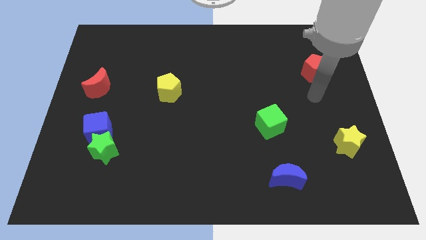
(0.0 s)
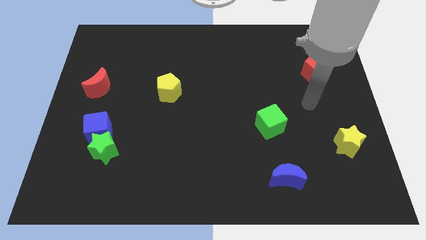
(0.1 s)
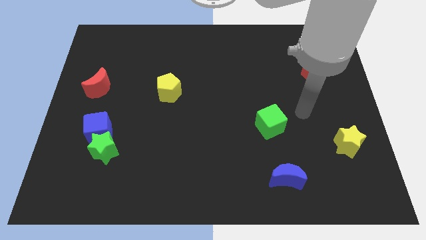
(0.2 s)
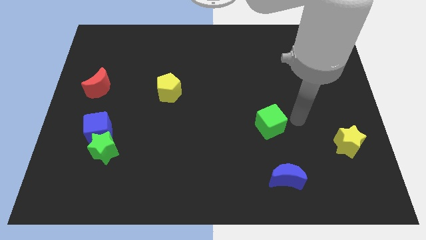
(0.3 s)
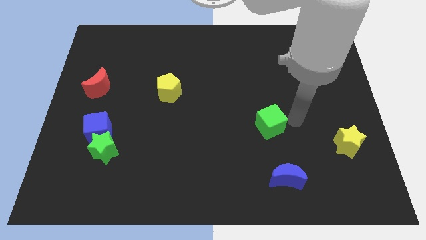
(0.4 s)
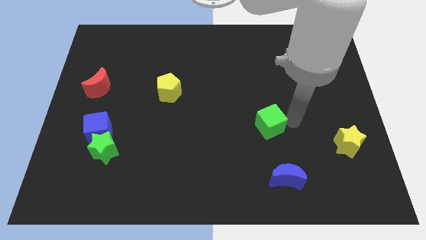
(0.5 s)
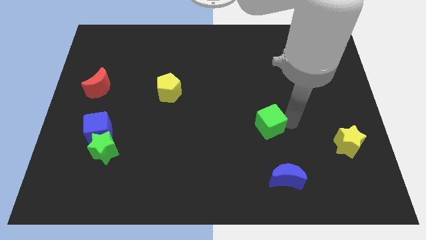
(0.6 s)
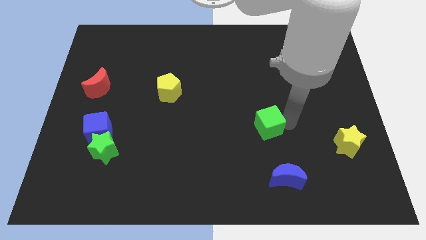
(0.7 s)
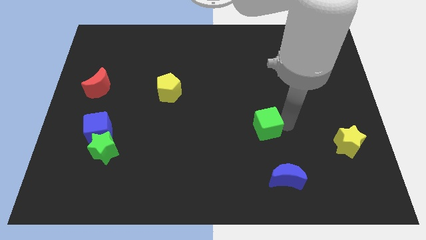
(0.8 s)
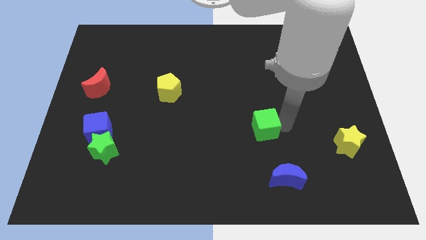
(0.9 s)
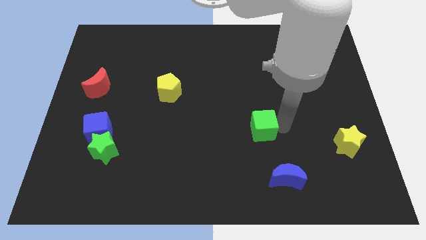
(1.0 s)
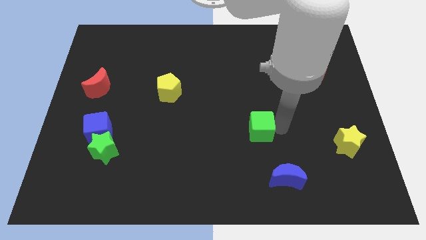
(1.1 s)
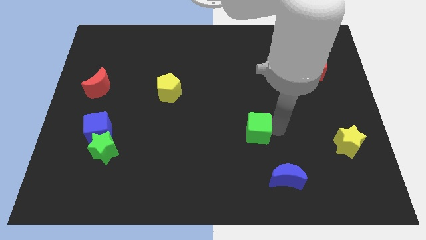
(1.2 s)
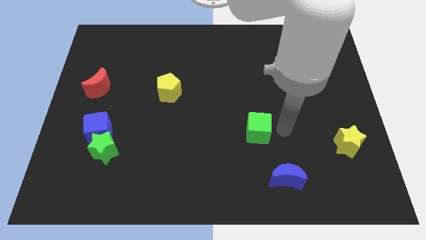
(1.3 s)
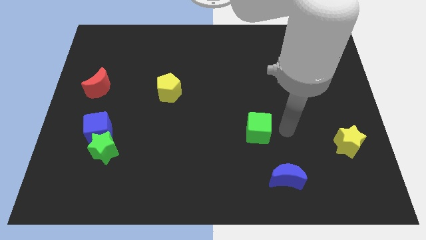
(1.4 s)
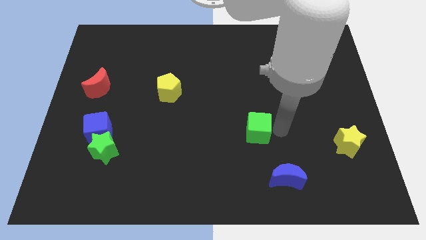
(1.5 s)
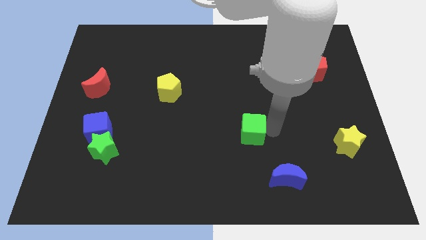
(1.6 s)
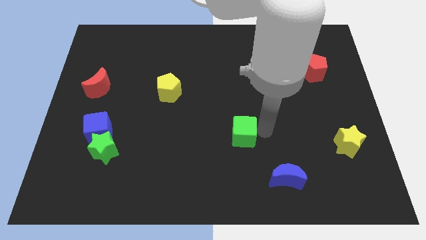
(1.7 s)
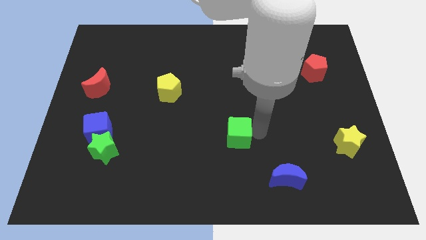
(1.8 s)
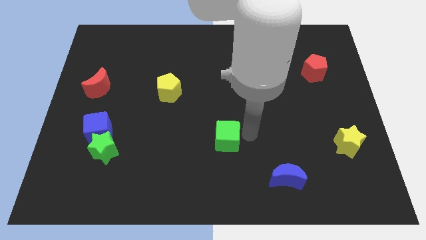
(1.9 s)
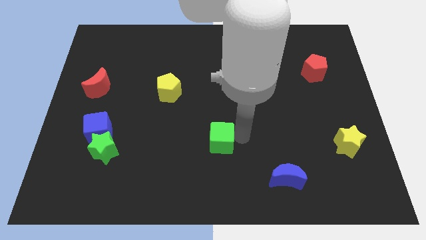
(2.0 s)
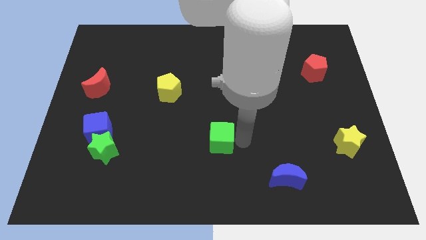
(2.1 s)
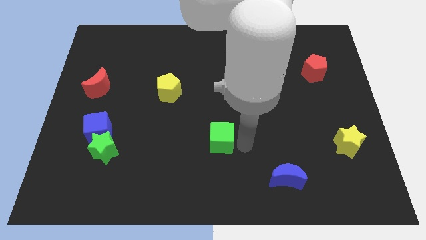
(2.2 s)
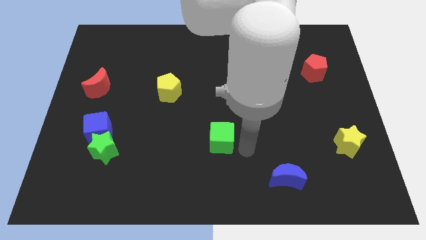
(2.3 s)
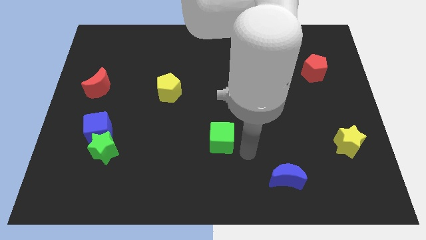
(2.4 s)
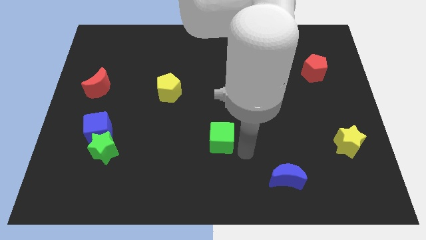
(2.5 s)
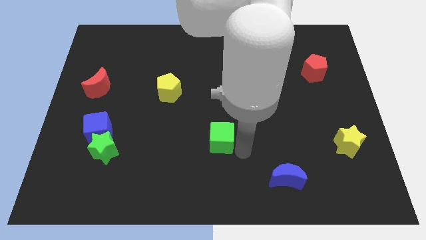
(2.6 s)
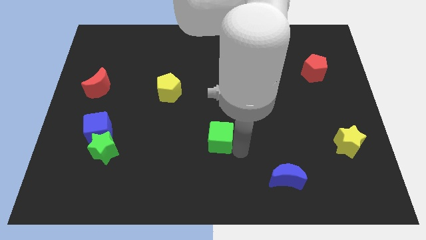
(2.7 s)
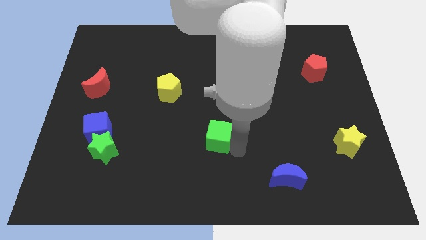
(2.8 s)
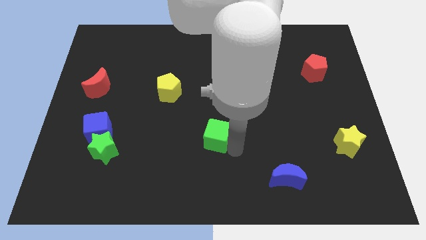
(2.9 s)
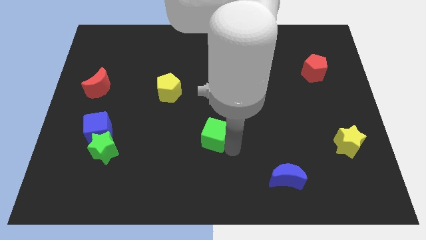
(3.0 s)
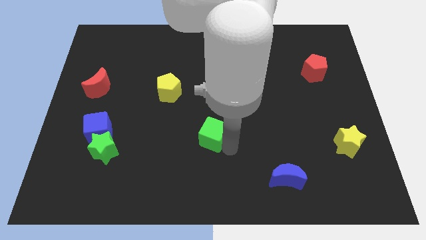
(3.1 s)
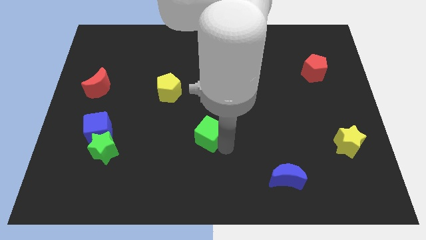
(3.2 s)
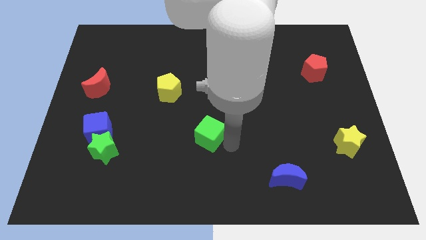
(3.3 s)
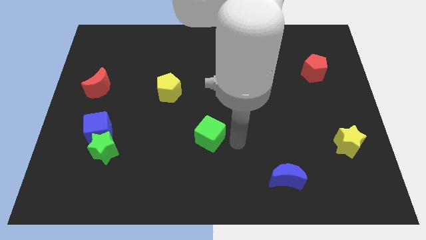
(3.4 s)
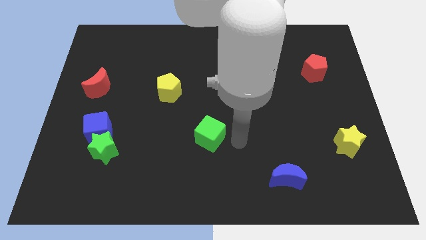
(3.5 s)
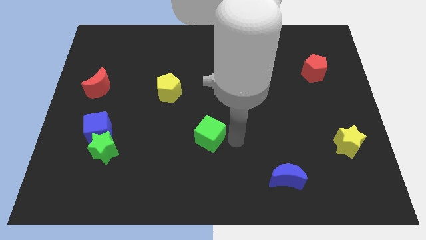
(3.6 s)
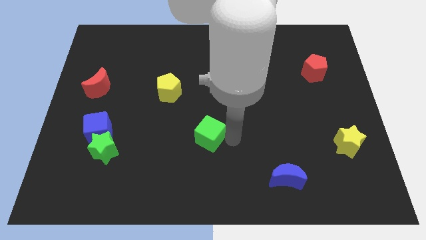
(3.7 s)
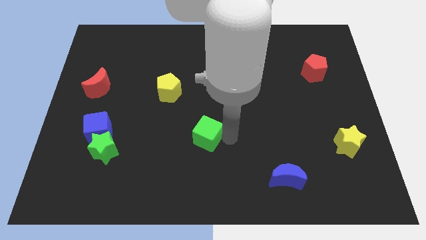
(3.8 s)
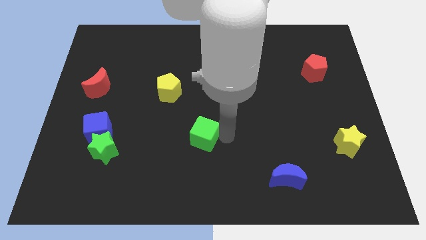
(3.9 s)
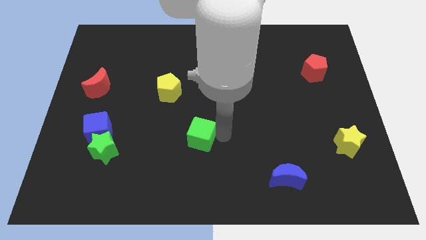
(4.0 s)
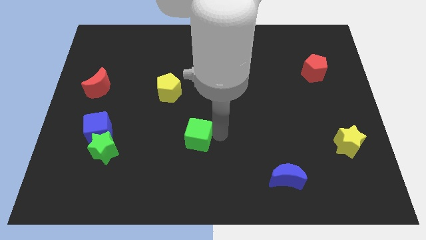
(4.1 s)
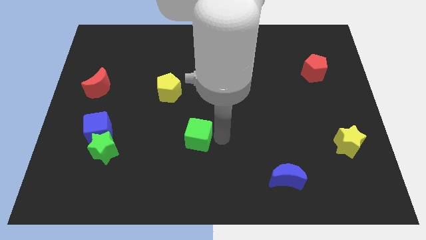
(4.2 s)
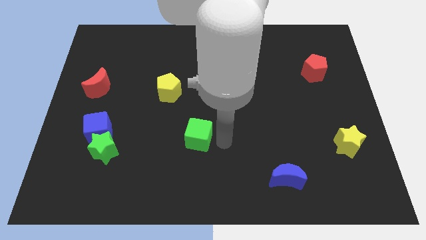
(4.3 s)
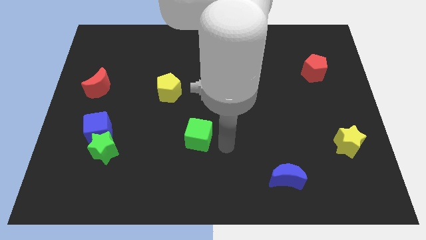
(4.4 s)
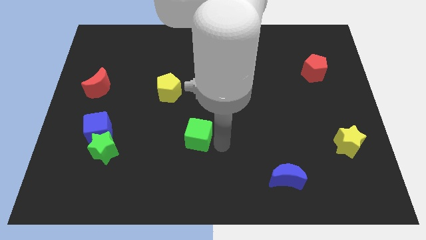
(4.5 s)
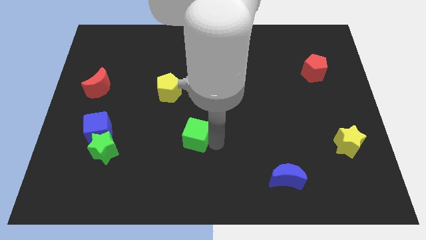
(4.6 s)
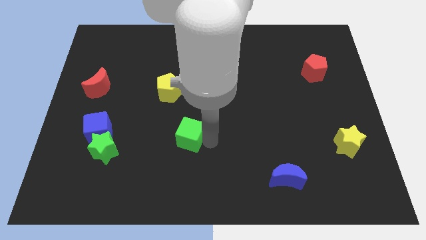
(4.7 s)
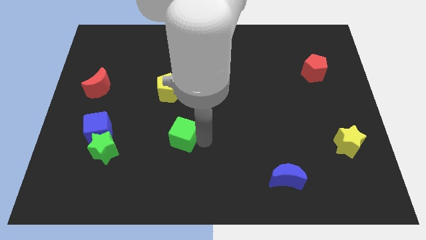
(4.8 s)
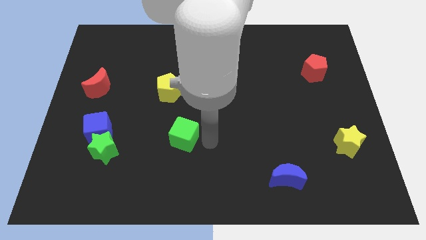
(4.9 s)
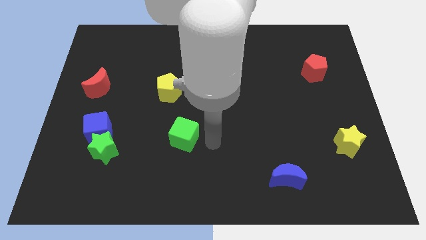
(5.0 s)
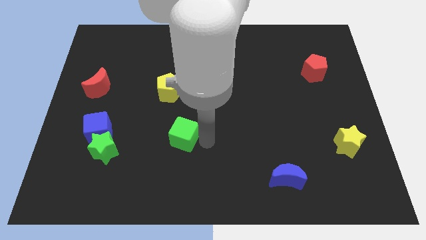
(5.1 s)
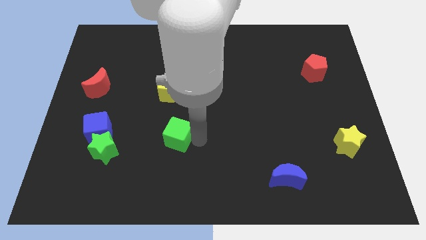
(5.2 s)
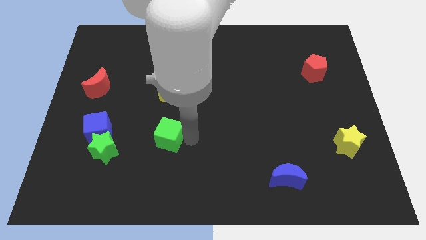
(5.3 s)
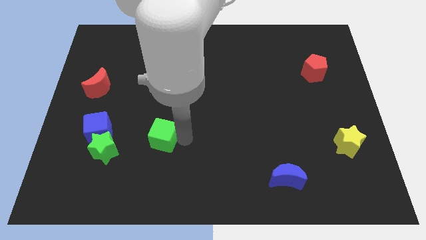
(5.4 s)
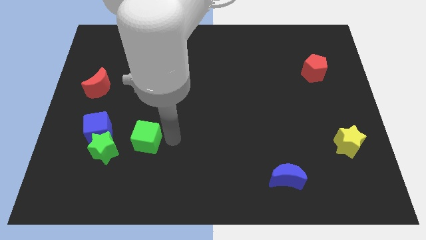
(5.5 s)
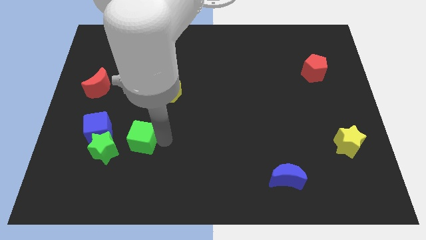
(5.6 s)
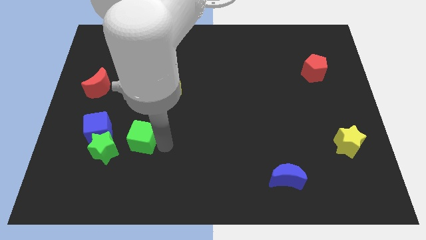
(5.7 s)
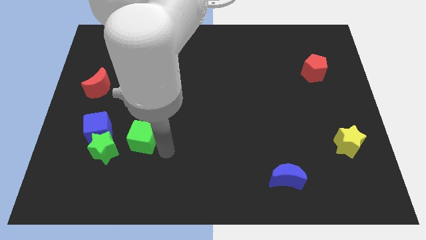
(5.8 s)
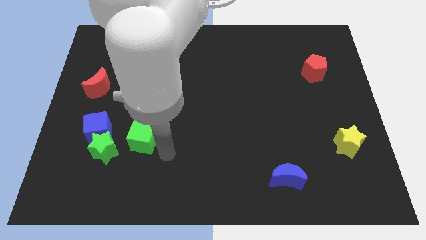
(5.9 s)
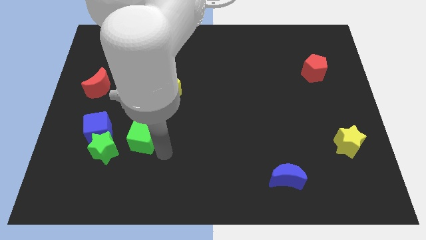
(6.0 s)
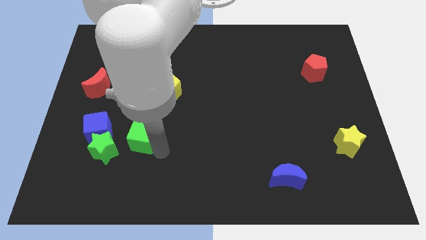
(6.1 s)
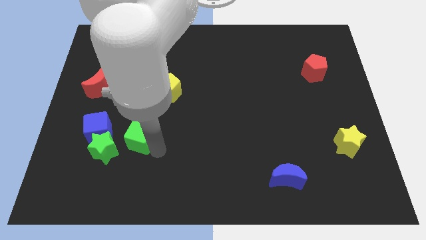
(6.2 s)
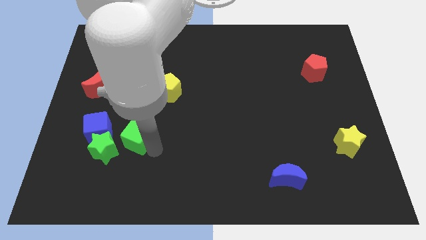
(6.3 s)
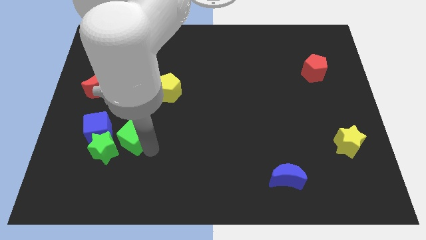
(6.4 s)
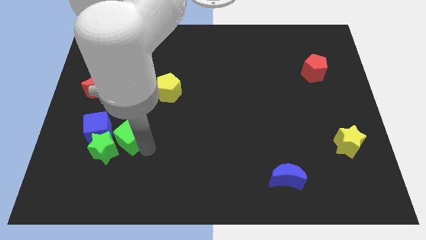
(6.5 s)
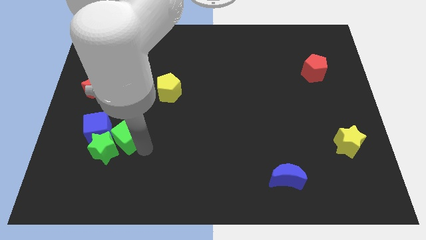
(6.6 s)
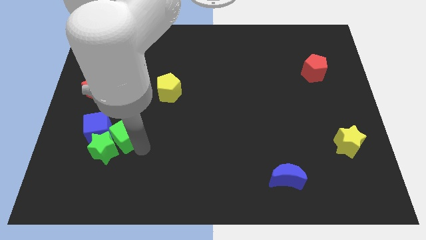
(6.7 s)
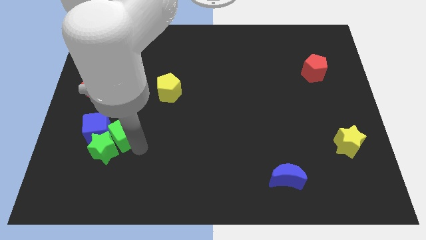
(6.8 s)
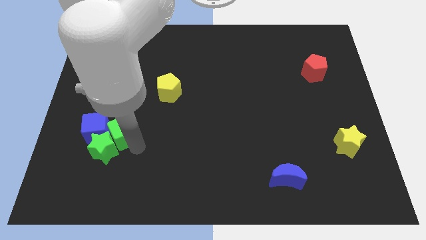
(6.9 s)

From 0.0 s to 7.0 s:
push the green cube next to the blue cube

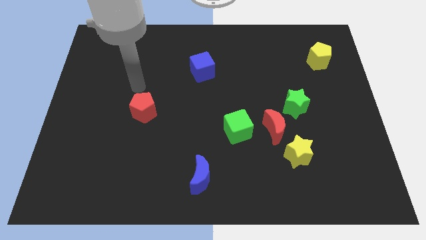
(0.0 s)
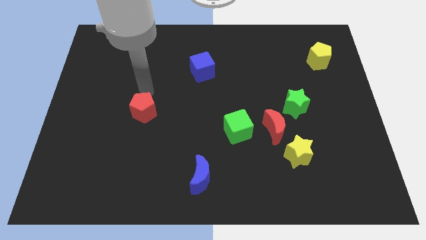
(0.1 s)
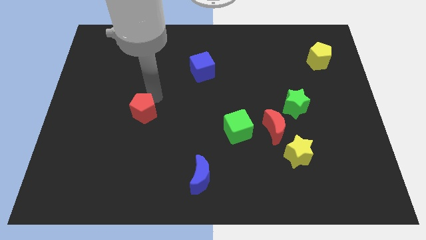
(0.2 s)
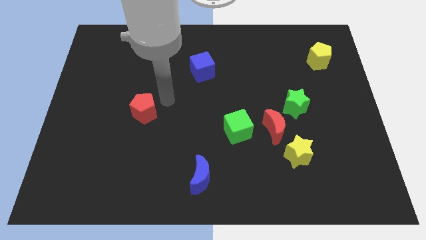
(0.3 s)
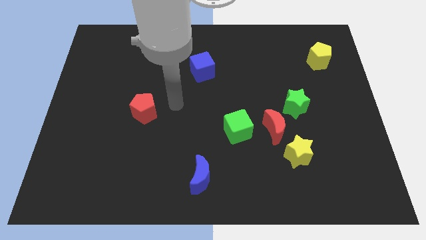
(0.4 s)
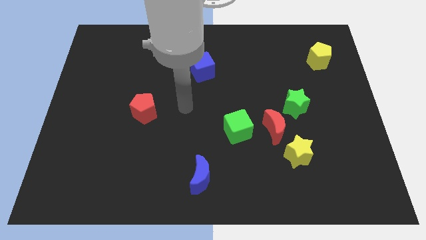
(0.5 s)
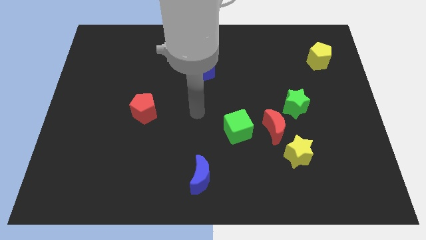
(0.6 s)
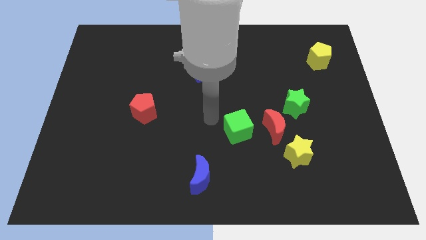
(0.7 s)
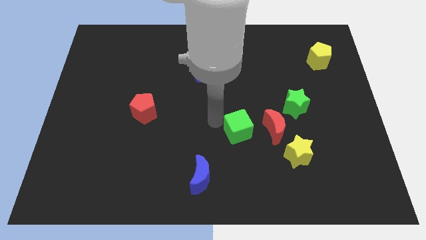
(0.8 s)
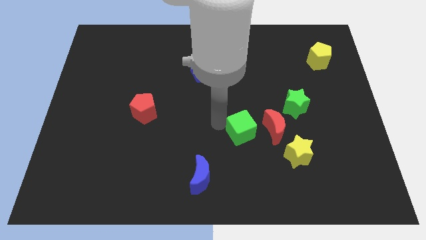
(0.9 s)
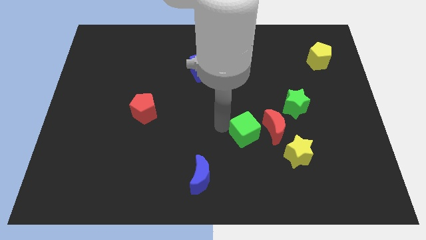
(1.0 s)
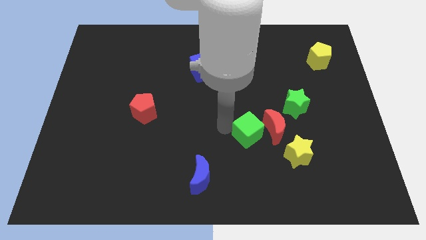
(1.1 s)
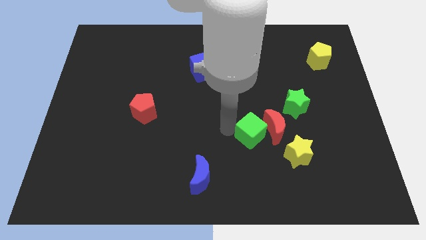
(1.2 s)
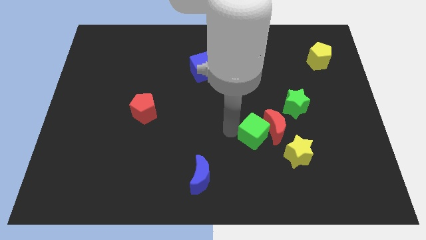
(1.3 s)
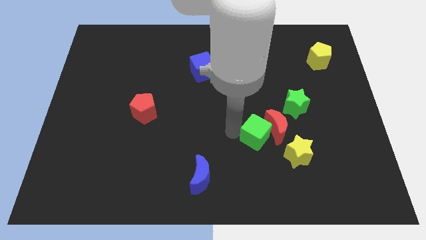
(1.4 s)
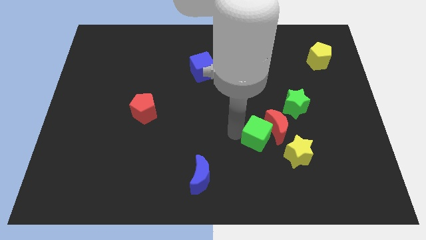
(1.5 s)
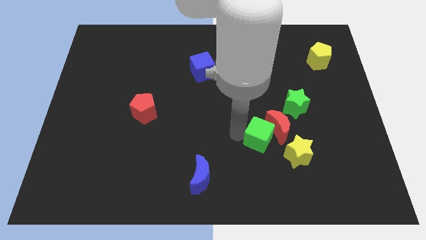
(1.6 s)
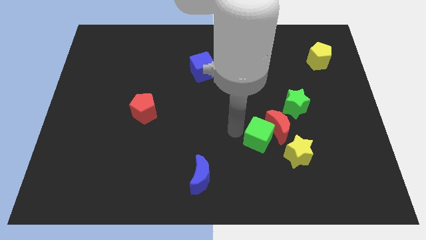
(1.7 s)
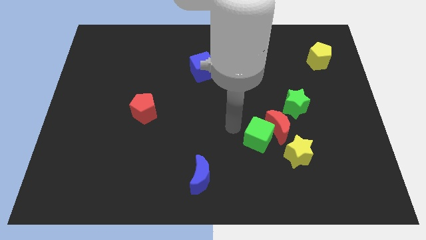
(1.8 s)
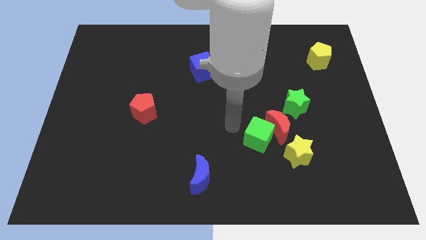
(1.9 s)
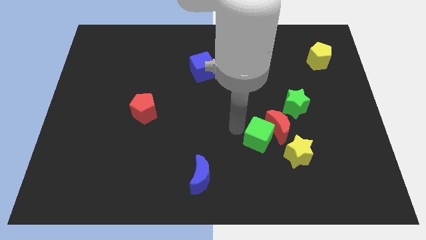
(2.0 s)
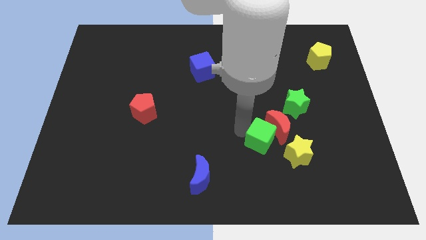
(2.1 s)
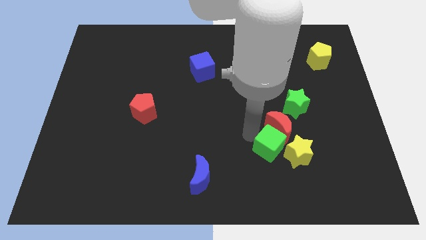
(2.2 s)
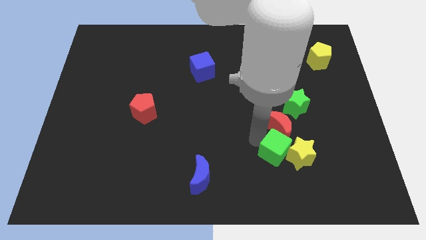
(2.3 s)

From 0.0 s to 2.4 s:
move the green cube towards the yellow star
